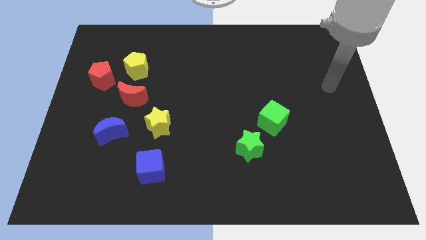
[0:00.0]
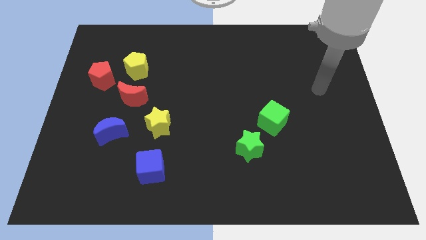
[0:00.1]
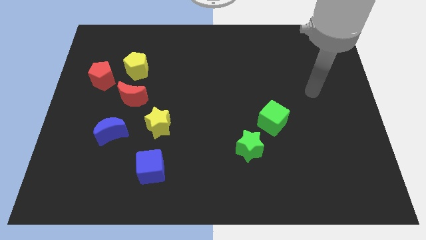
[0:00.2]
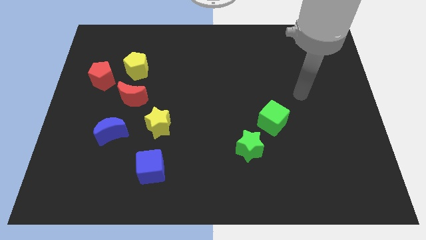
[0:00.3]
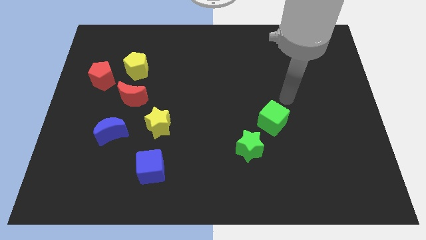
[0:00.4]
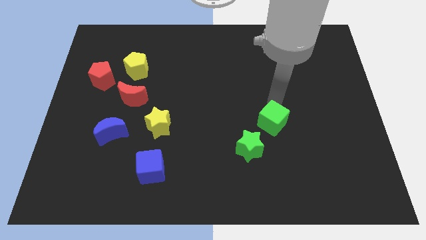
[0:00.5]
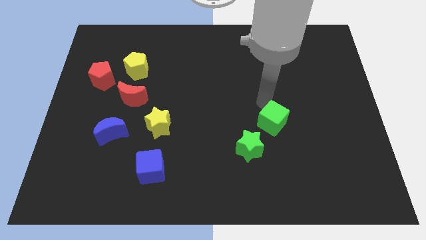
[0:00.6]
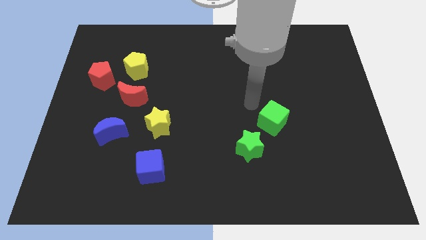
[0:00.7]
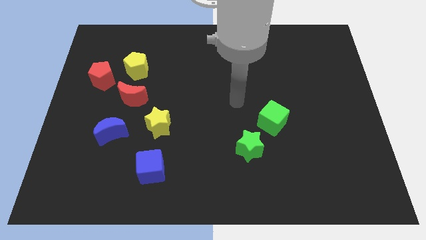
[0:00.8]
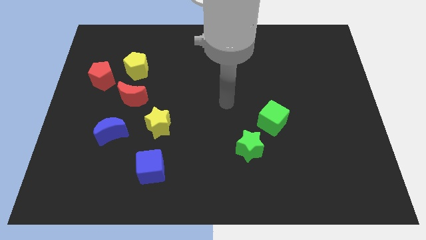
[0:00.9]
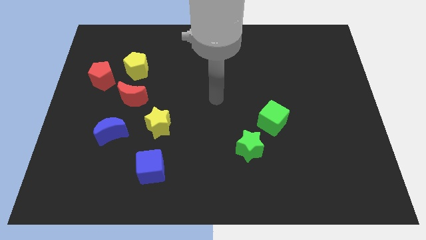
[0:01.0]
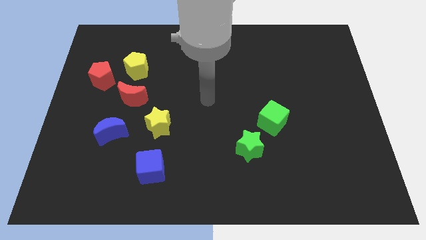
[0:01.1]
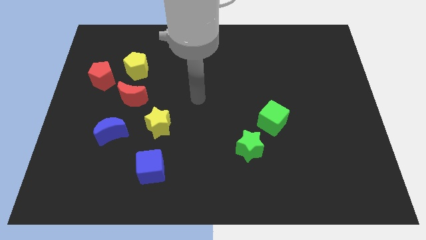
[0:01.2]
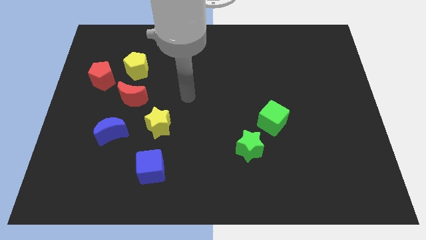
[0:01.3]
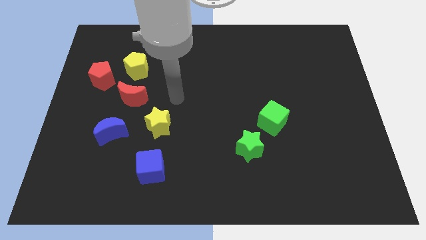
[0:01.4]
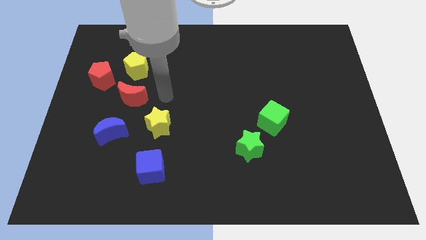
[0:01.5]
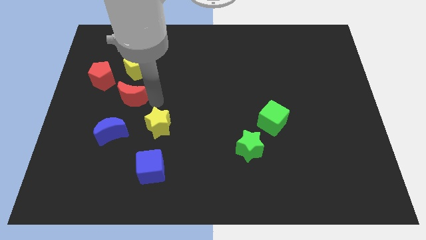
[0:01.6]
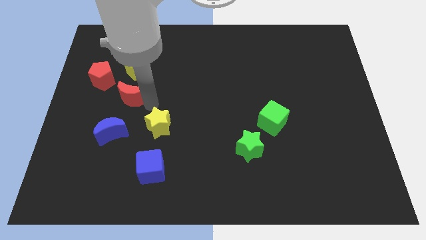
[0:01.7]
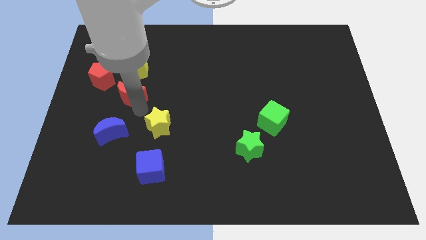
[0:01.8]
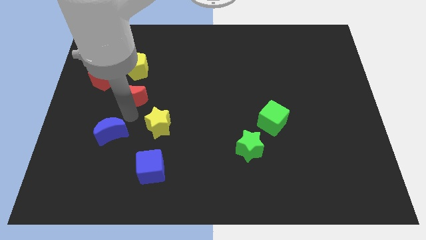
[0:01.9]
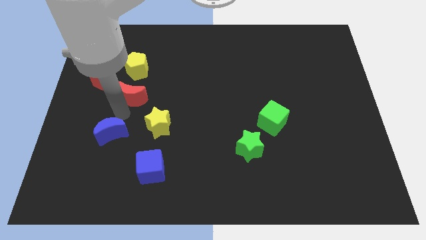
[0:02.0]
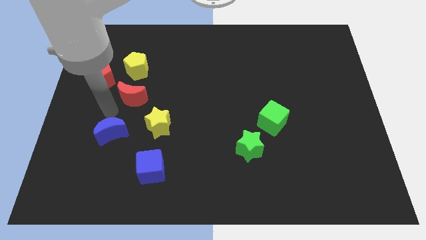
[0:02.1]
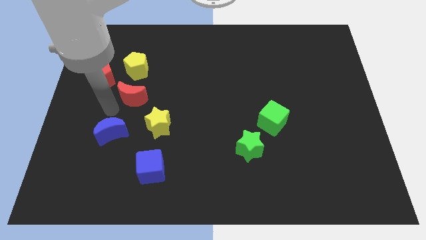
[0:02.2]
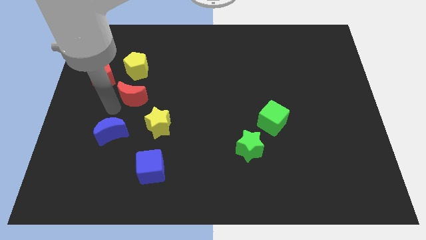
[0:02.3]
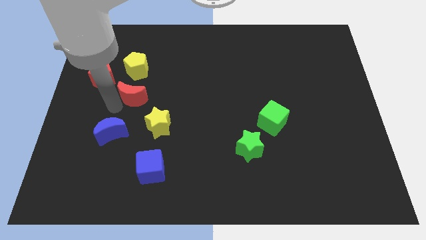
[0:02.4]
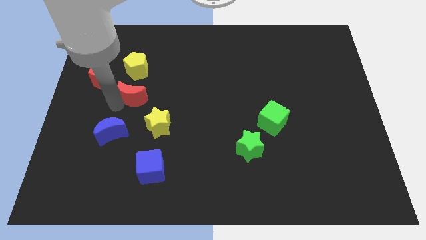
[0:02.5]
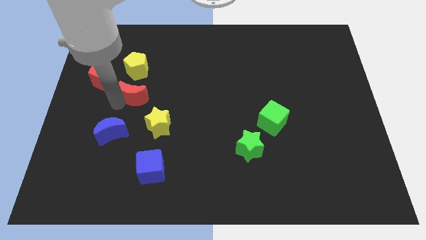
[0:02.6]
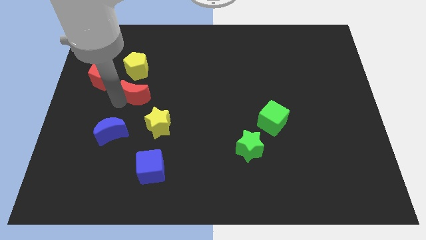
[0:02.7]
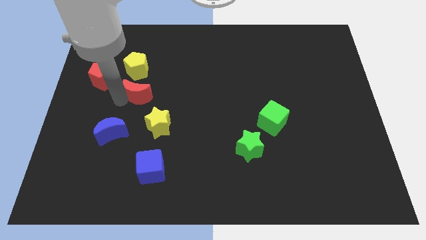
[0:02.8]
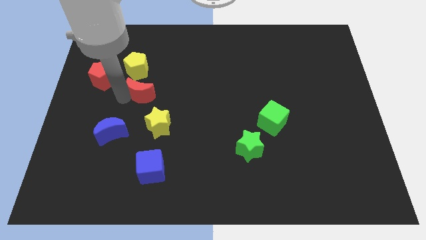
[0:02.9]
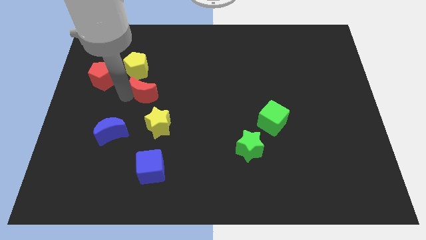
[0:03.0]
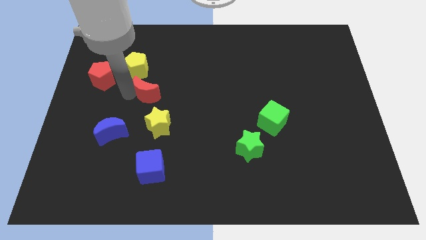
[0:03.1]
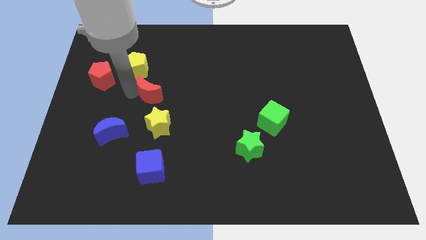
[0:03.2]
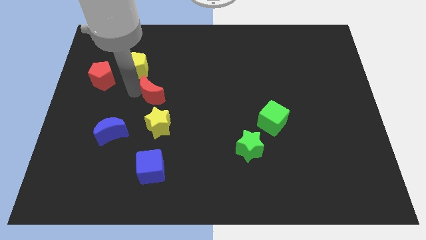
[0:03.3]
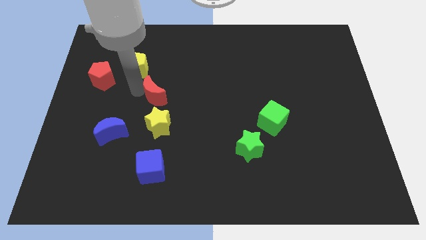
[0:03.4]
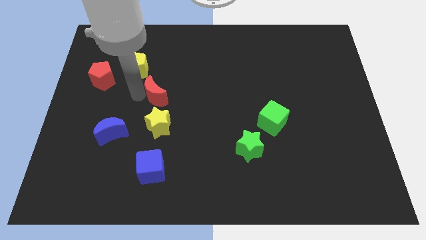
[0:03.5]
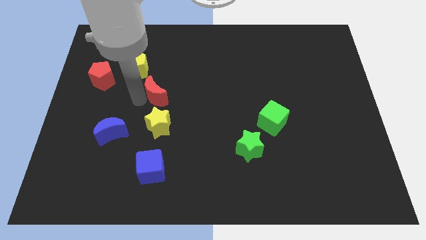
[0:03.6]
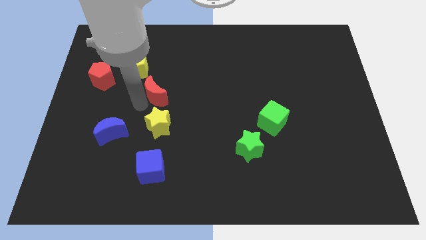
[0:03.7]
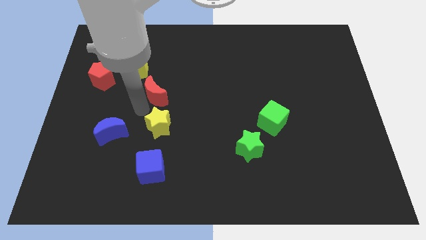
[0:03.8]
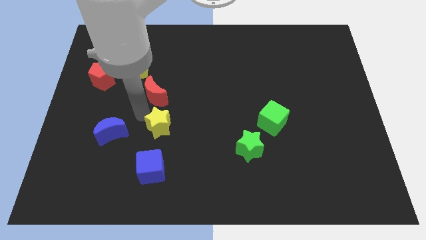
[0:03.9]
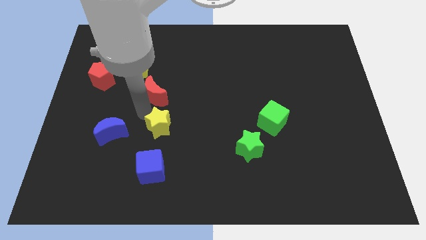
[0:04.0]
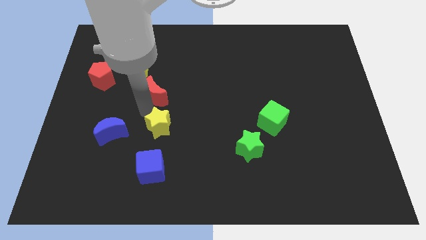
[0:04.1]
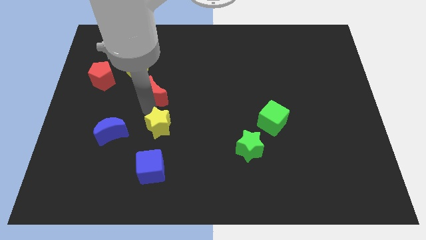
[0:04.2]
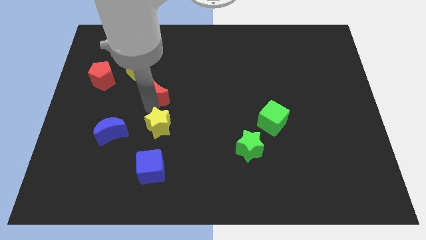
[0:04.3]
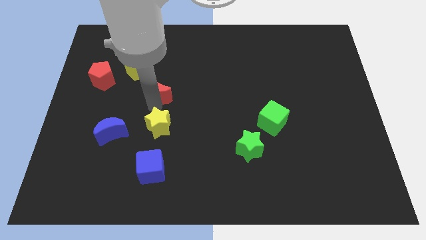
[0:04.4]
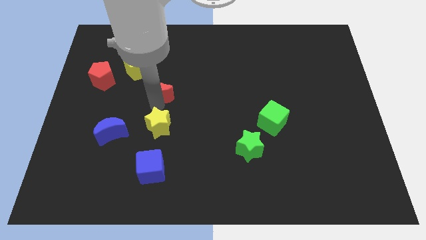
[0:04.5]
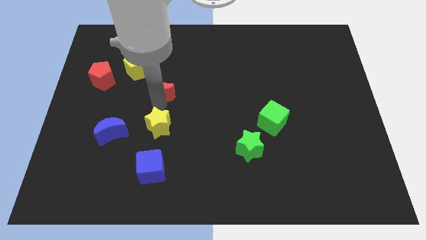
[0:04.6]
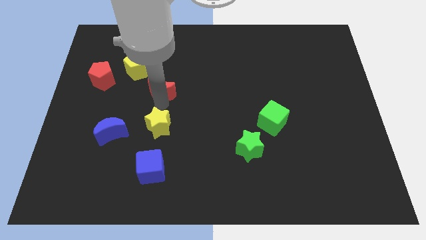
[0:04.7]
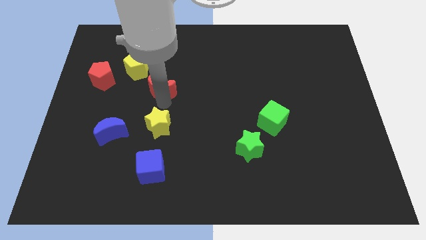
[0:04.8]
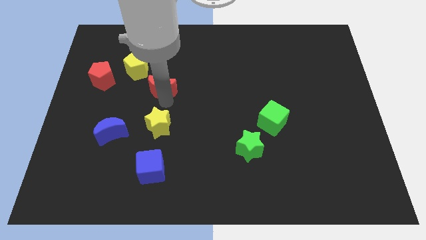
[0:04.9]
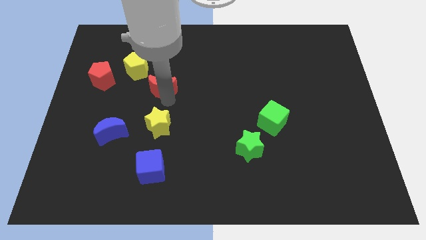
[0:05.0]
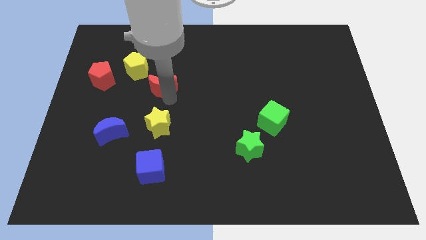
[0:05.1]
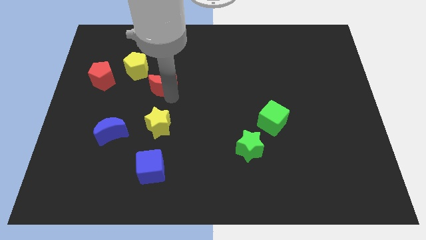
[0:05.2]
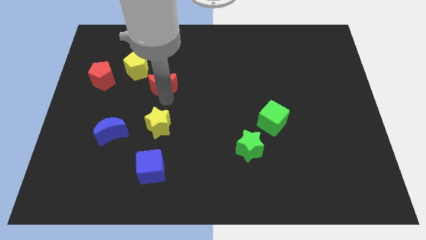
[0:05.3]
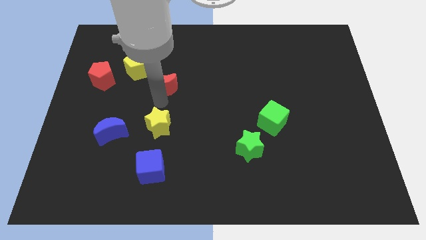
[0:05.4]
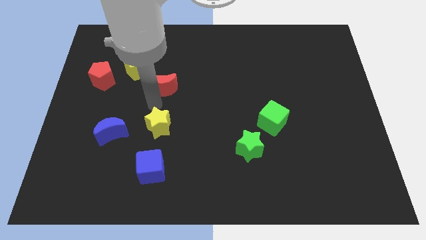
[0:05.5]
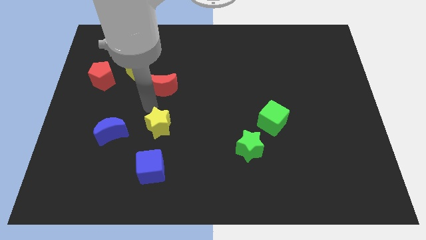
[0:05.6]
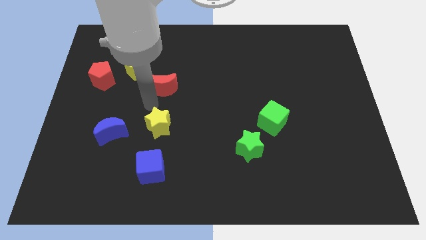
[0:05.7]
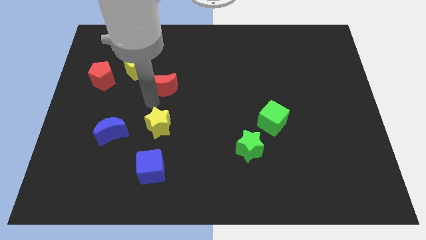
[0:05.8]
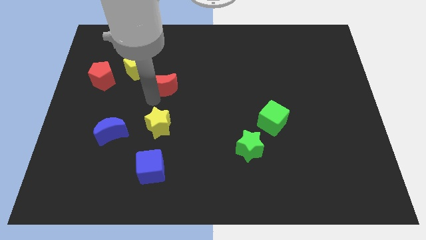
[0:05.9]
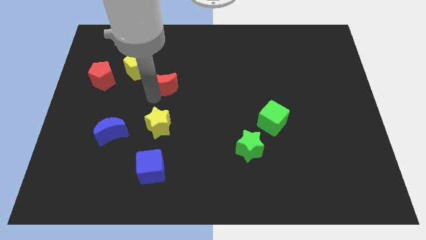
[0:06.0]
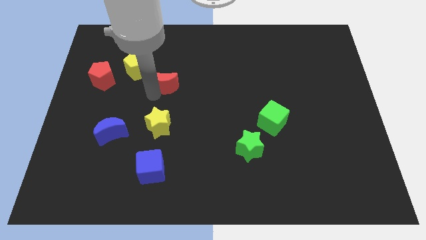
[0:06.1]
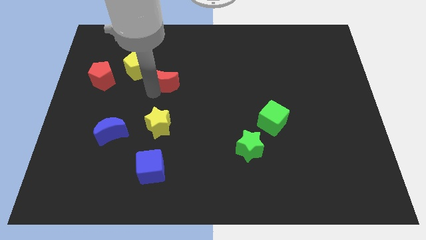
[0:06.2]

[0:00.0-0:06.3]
move the red moon right of the yellow pentagon

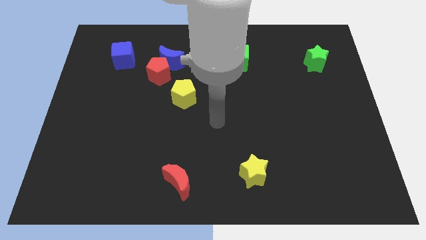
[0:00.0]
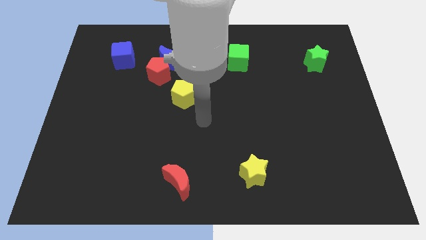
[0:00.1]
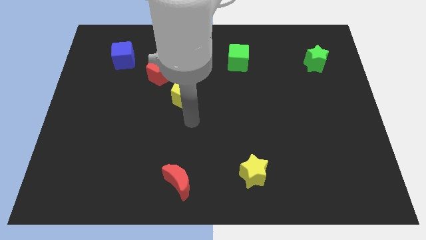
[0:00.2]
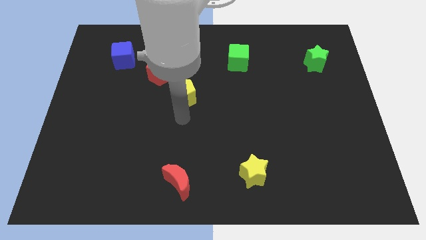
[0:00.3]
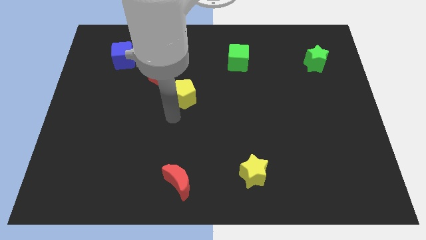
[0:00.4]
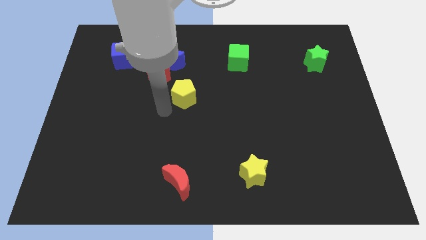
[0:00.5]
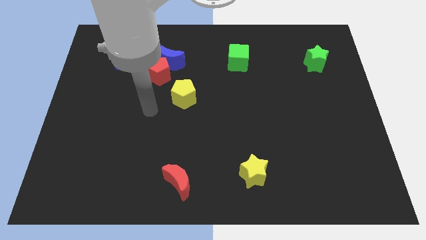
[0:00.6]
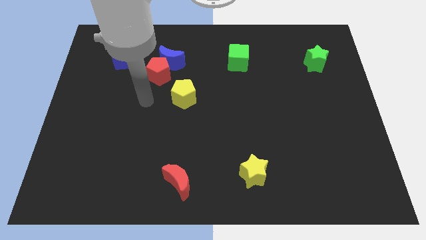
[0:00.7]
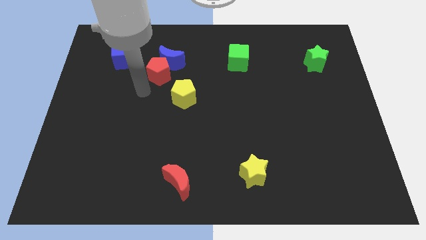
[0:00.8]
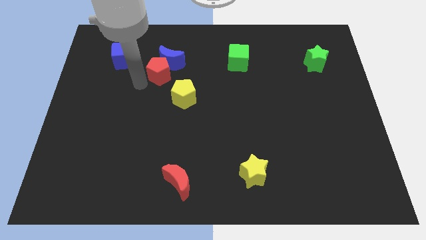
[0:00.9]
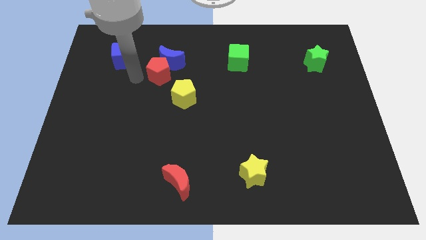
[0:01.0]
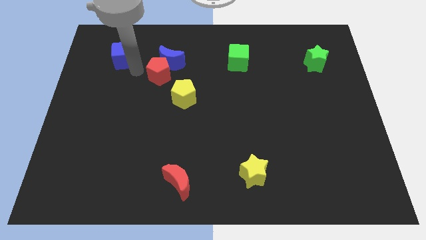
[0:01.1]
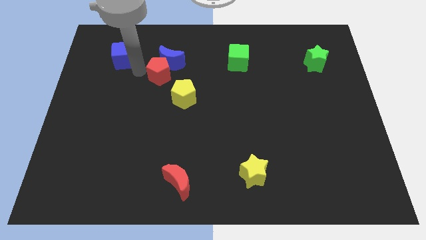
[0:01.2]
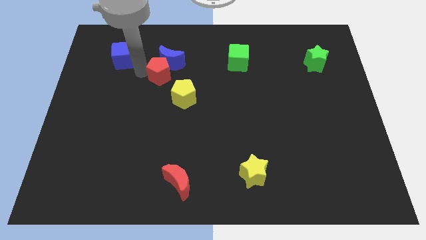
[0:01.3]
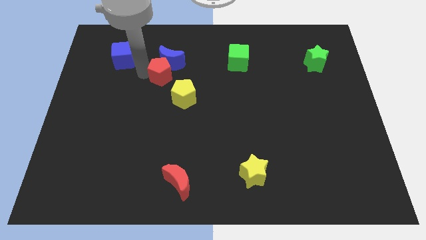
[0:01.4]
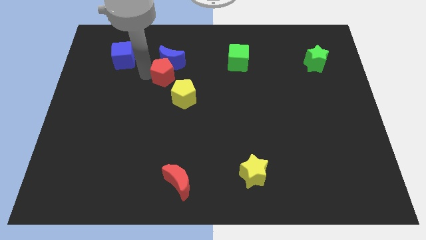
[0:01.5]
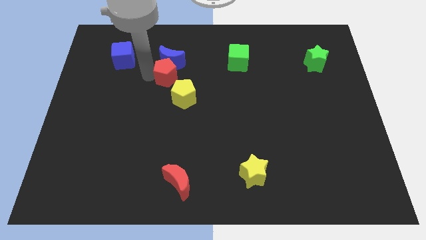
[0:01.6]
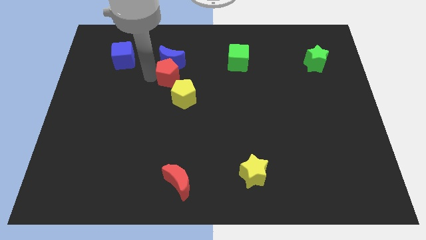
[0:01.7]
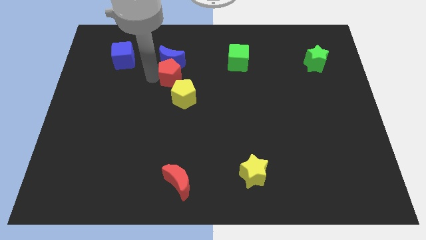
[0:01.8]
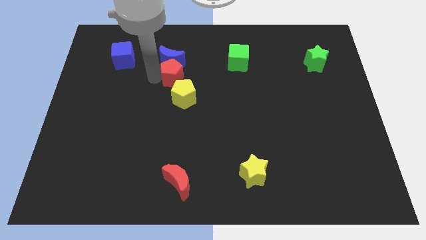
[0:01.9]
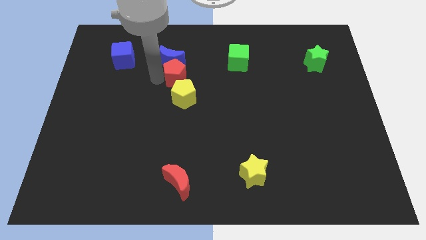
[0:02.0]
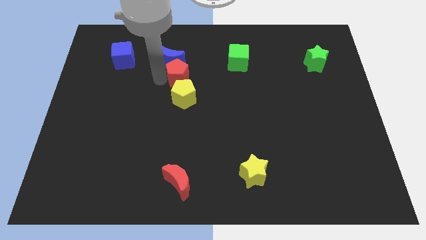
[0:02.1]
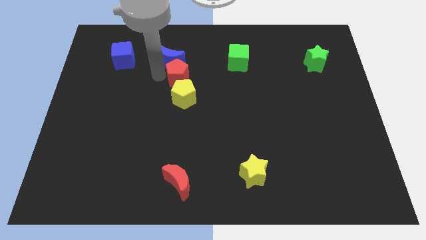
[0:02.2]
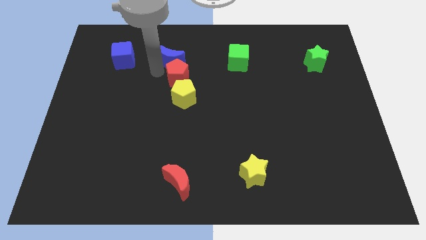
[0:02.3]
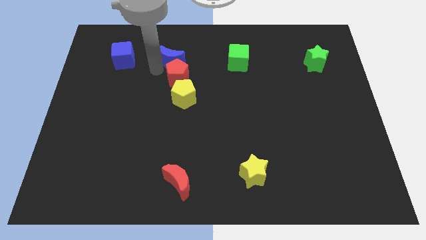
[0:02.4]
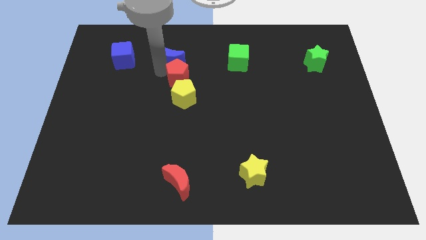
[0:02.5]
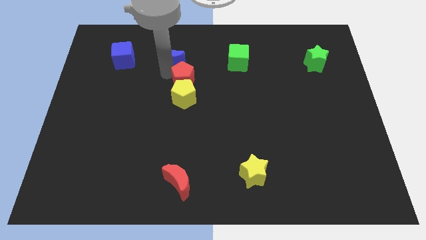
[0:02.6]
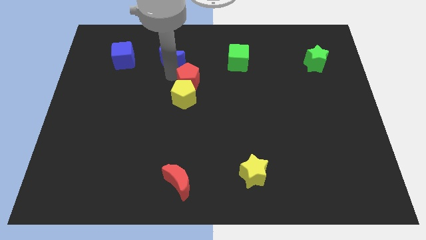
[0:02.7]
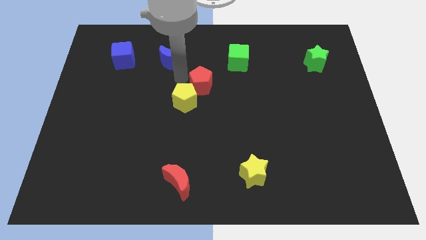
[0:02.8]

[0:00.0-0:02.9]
put the red pentagon to the right of the yellow pentagon
